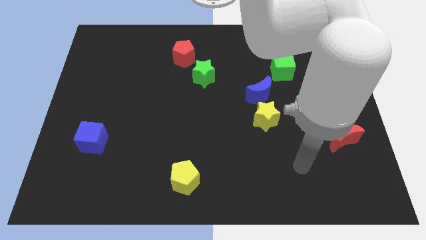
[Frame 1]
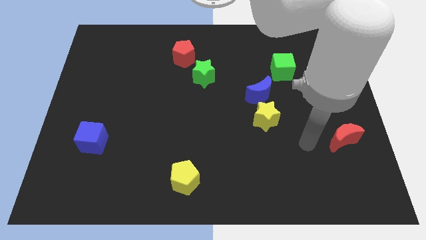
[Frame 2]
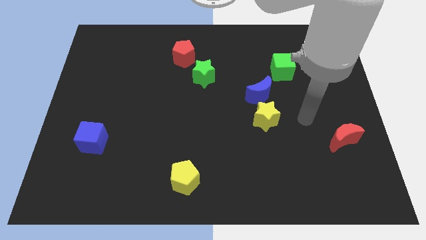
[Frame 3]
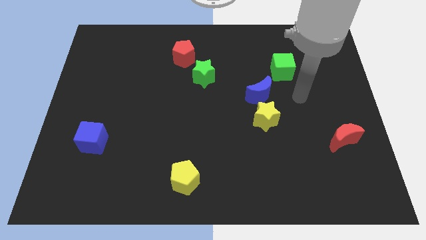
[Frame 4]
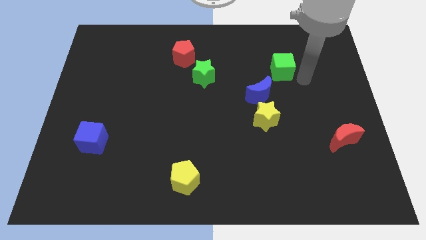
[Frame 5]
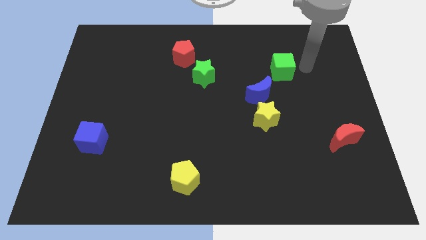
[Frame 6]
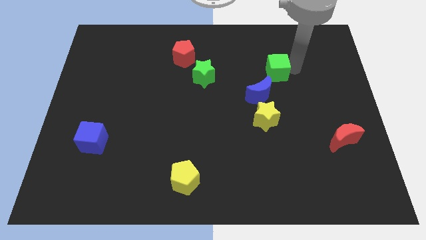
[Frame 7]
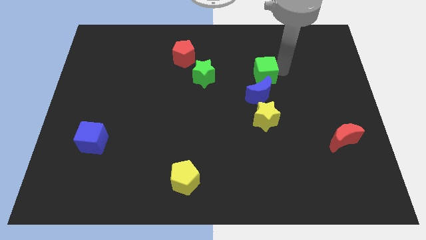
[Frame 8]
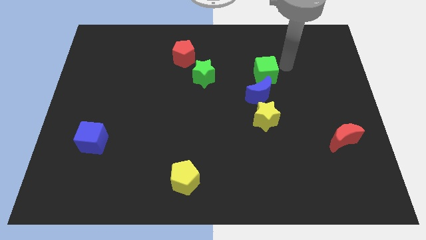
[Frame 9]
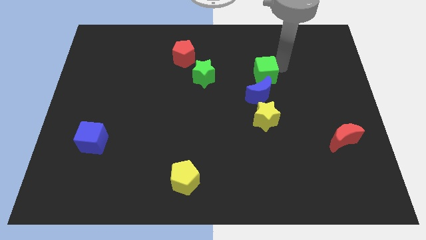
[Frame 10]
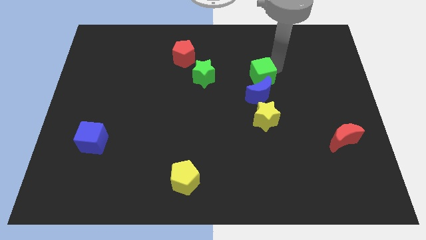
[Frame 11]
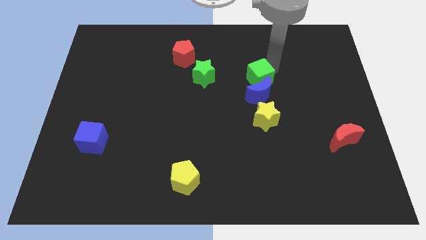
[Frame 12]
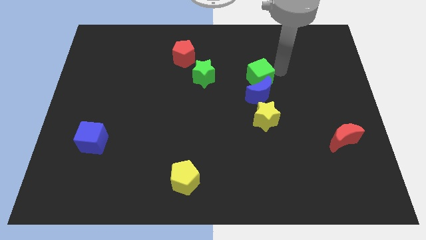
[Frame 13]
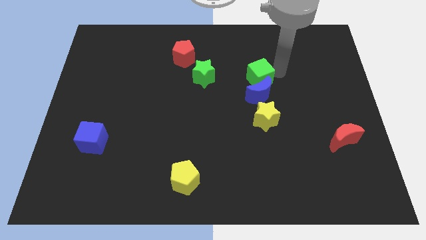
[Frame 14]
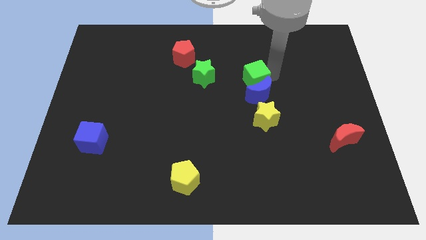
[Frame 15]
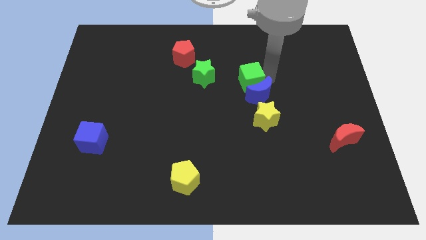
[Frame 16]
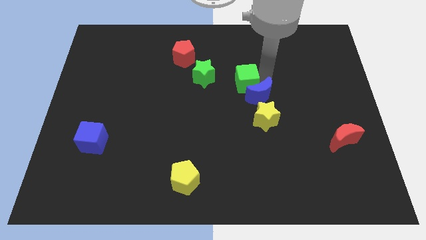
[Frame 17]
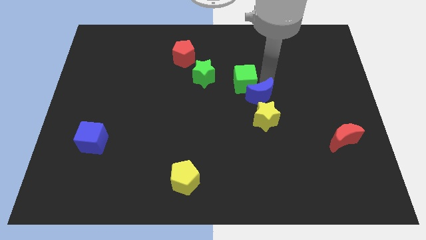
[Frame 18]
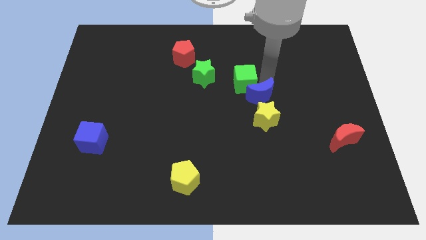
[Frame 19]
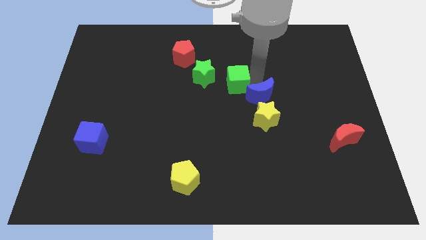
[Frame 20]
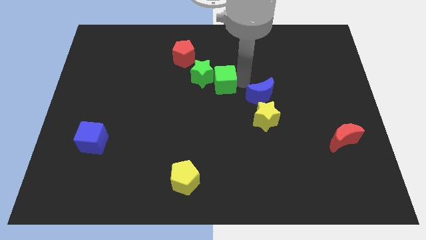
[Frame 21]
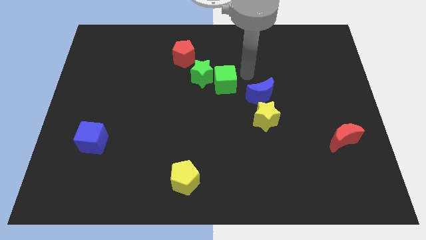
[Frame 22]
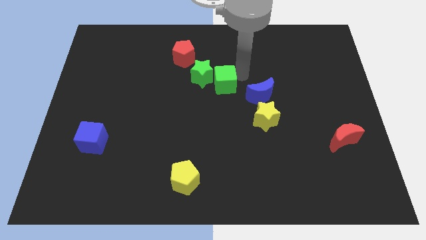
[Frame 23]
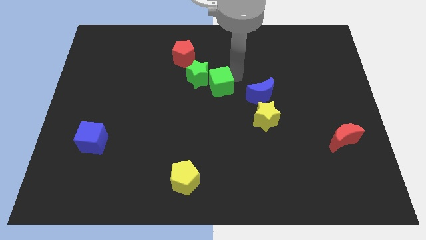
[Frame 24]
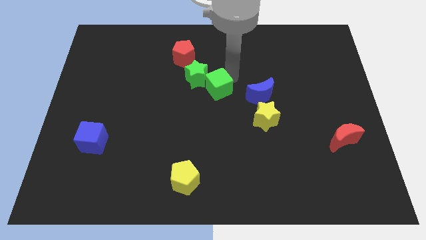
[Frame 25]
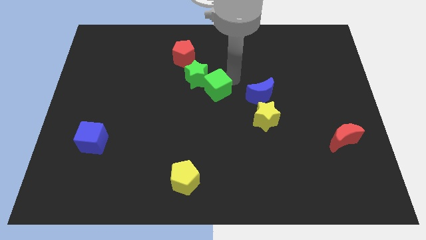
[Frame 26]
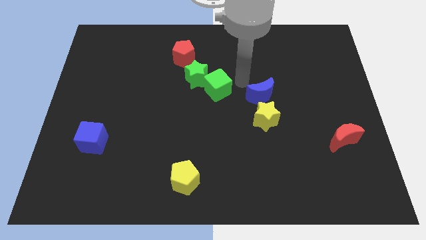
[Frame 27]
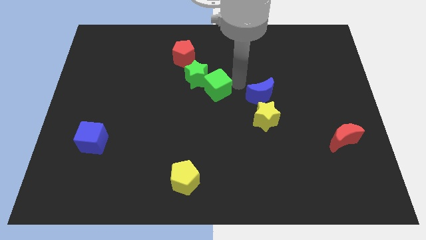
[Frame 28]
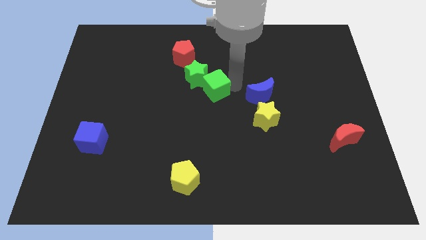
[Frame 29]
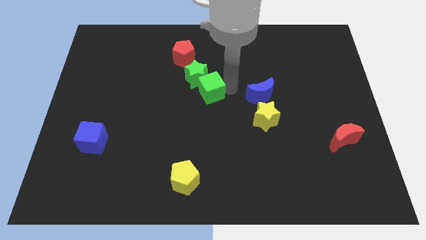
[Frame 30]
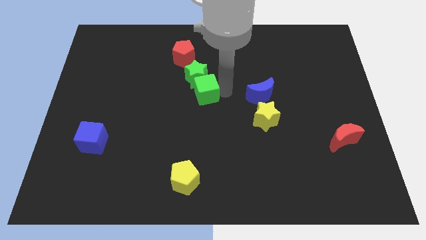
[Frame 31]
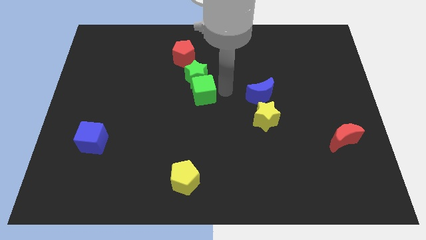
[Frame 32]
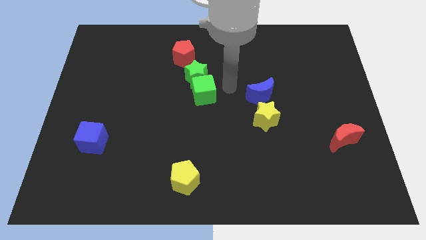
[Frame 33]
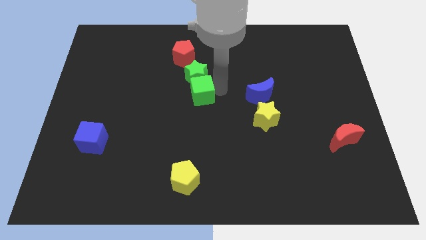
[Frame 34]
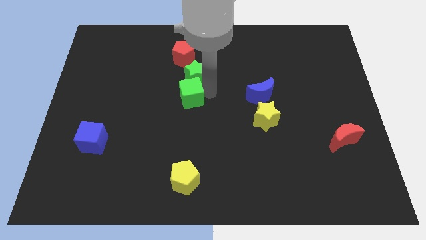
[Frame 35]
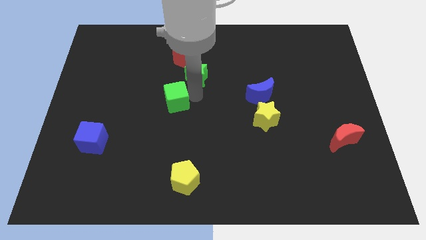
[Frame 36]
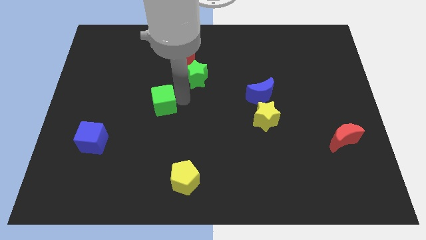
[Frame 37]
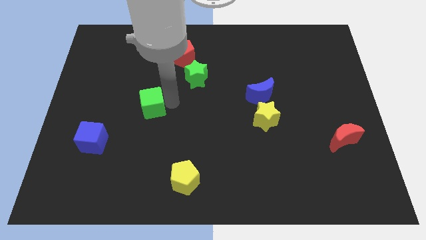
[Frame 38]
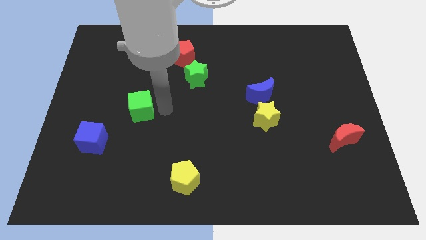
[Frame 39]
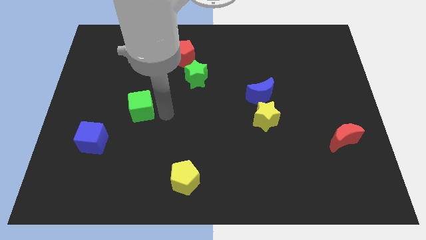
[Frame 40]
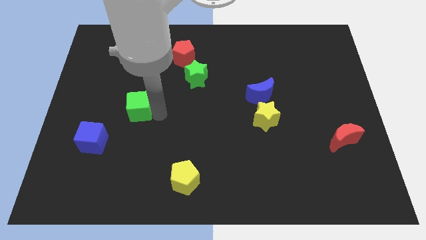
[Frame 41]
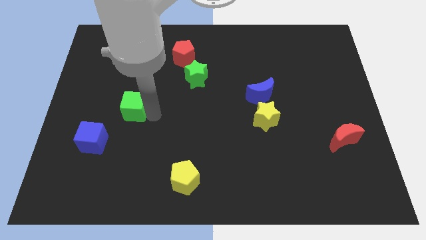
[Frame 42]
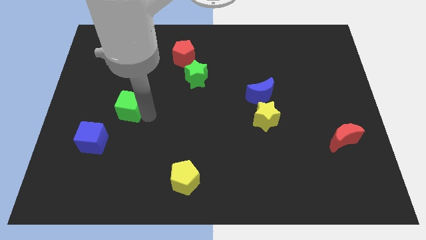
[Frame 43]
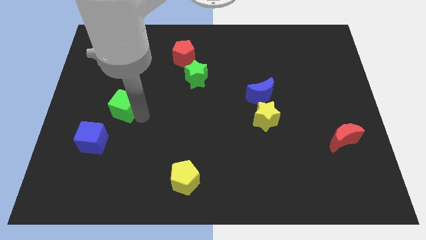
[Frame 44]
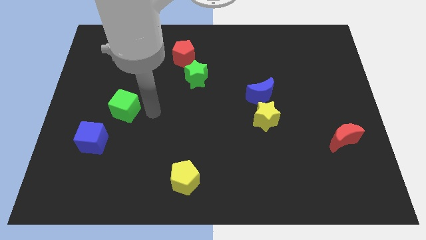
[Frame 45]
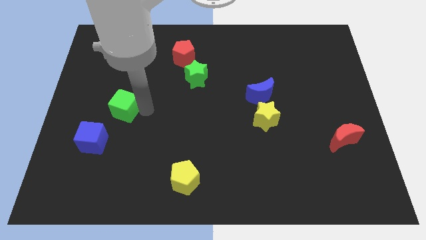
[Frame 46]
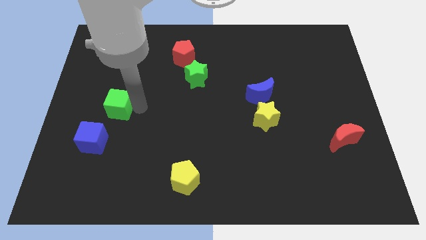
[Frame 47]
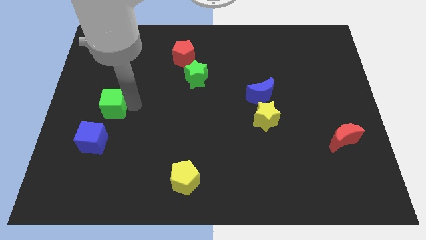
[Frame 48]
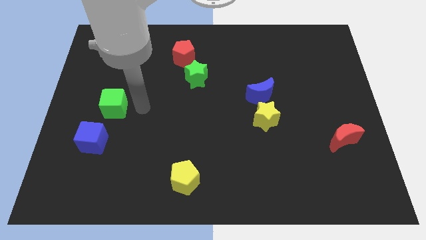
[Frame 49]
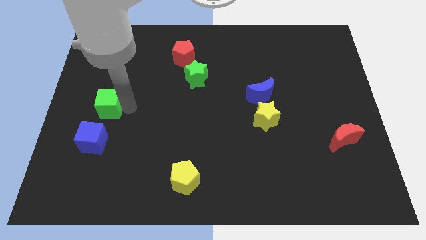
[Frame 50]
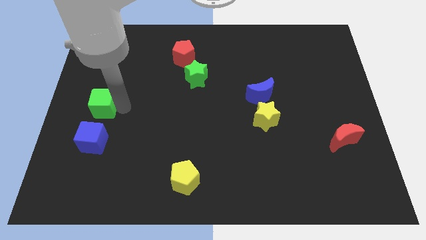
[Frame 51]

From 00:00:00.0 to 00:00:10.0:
move the green cube to the left side of the board
